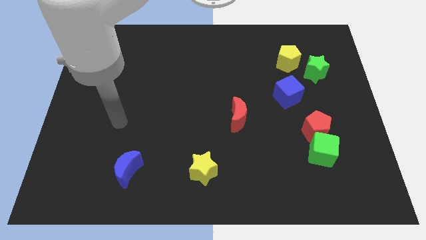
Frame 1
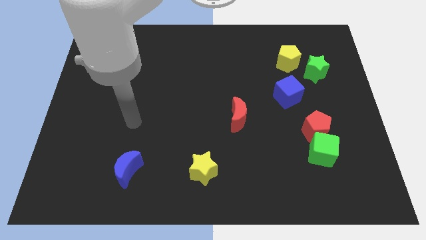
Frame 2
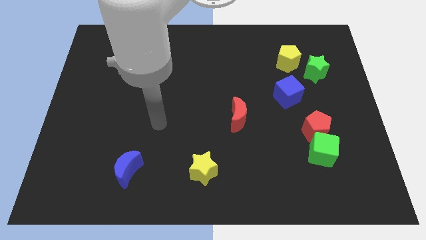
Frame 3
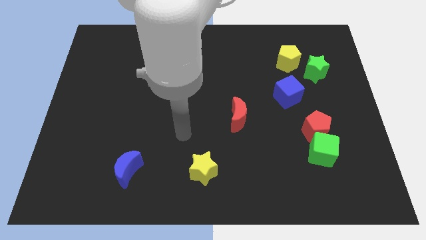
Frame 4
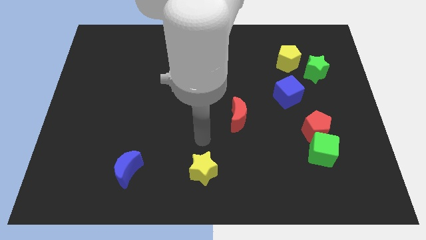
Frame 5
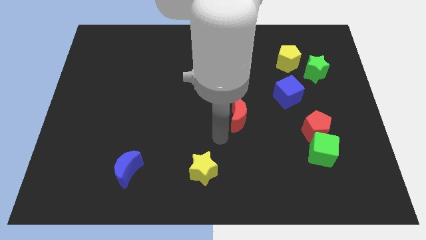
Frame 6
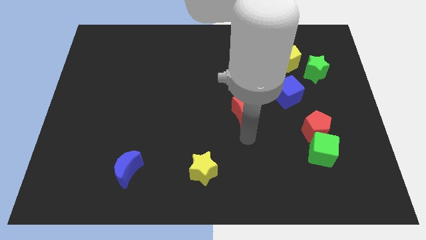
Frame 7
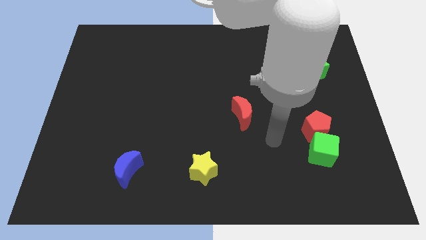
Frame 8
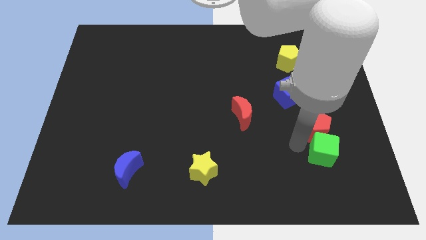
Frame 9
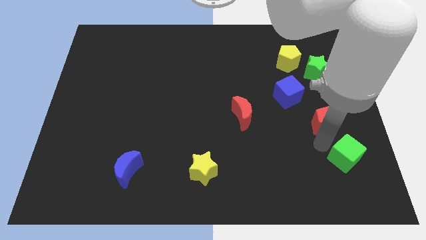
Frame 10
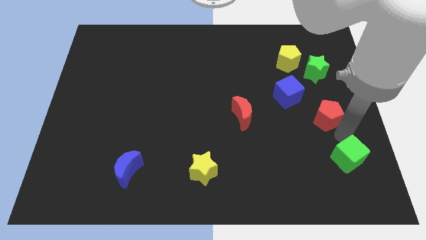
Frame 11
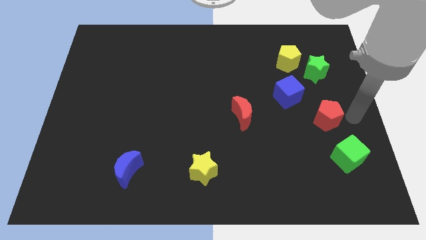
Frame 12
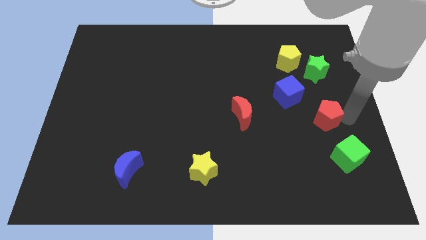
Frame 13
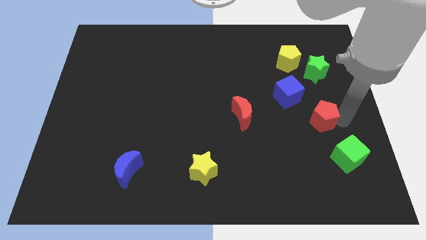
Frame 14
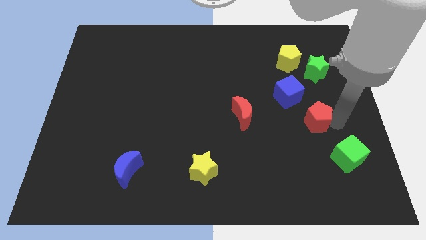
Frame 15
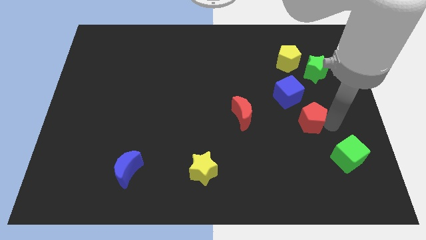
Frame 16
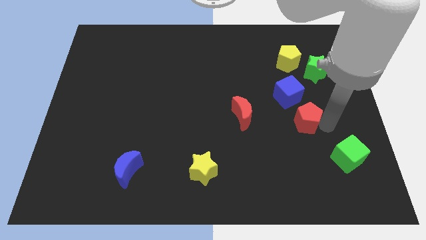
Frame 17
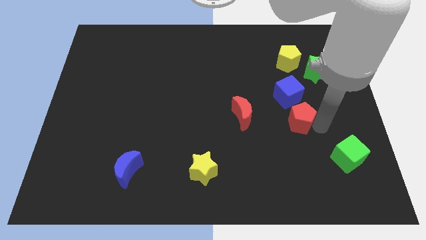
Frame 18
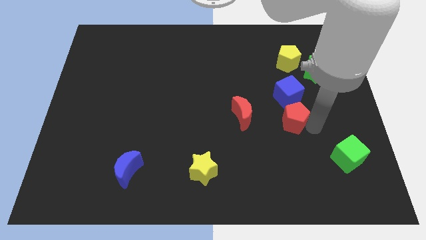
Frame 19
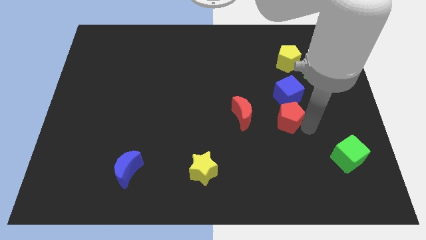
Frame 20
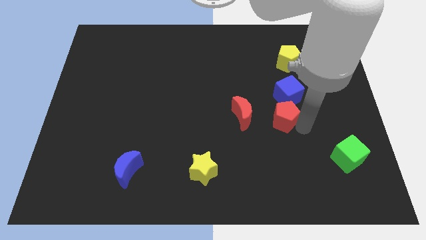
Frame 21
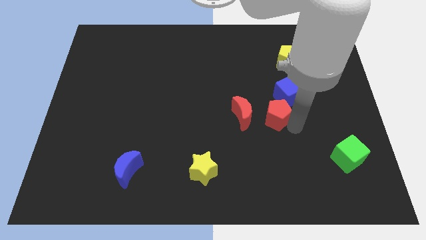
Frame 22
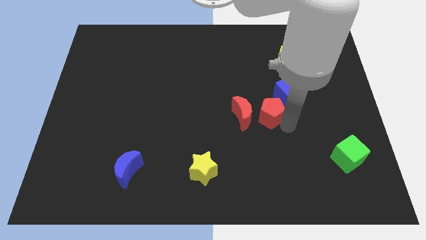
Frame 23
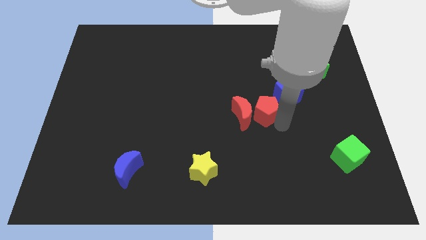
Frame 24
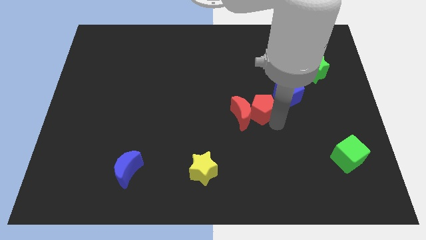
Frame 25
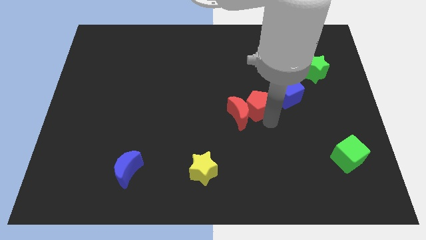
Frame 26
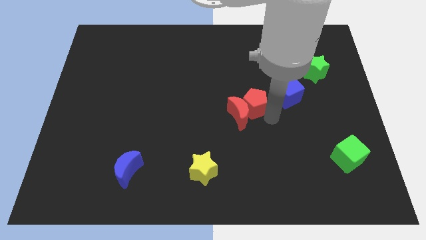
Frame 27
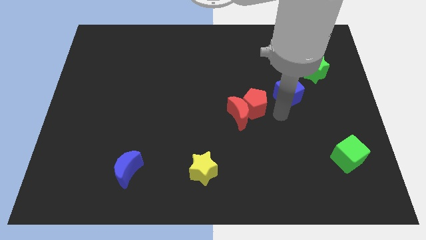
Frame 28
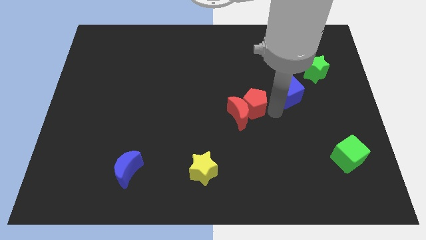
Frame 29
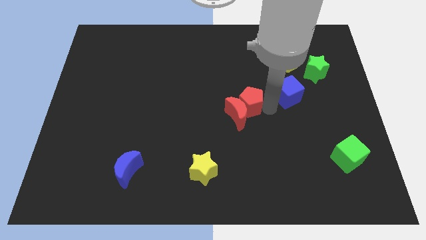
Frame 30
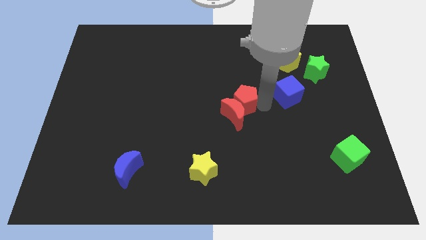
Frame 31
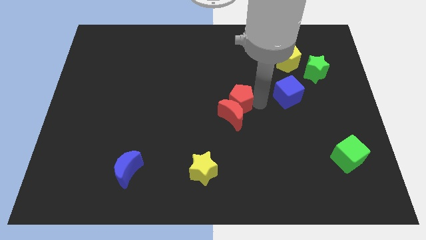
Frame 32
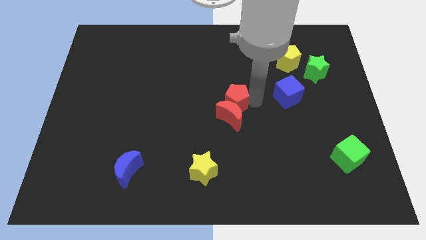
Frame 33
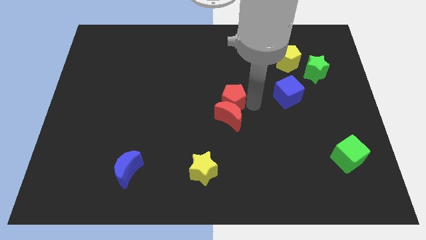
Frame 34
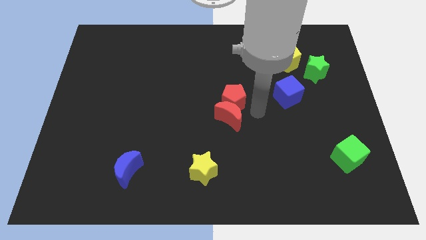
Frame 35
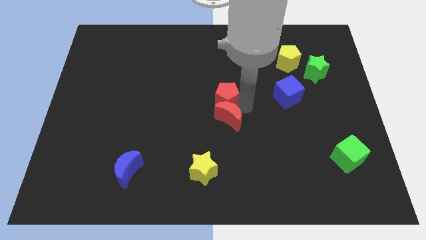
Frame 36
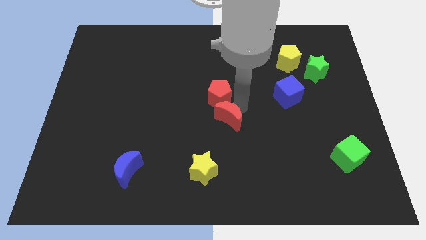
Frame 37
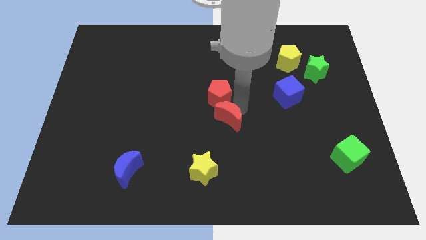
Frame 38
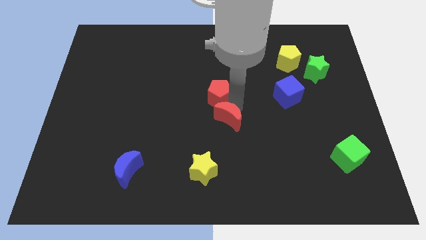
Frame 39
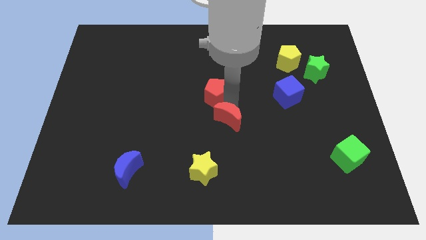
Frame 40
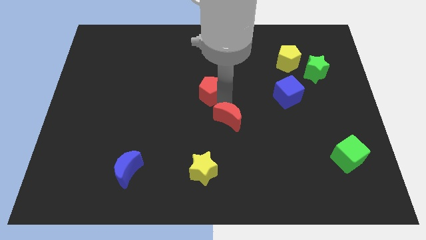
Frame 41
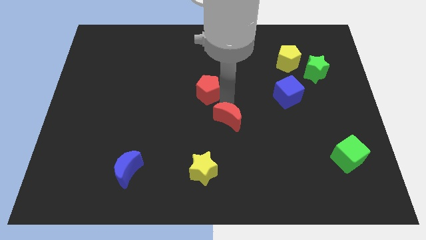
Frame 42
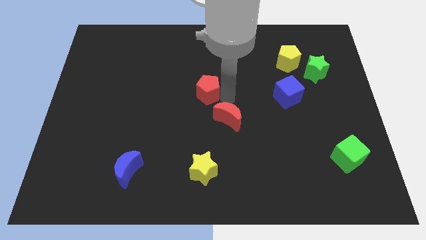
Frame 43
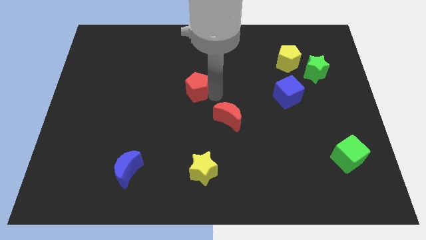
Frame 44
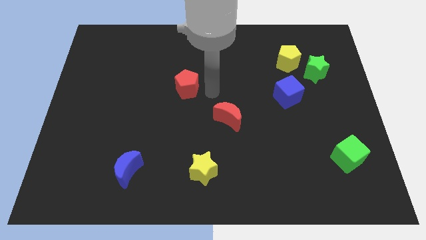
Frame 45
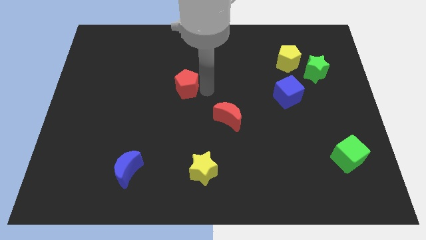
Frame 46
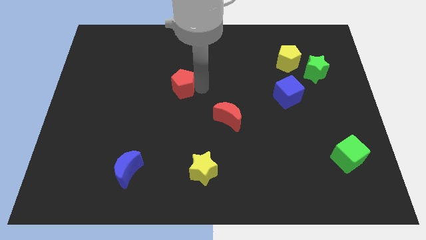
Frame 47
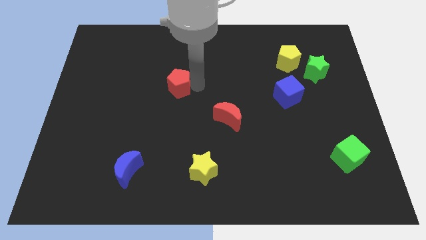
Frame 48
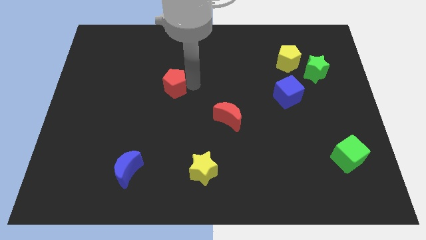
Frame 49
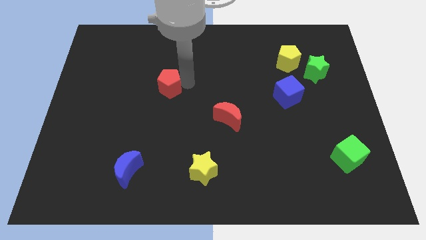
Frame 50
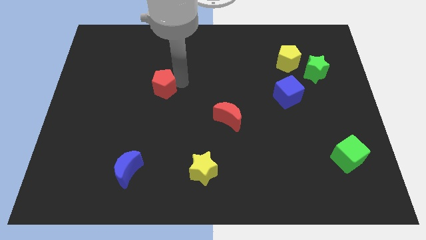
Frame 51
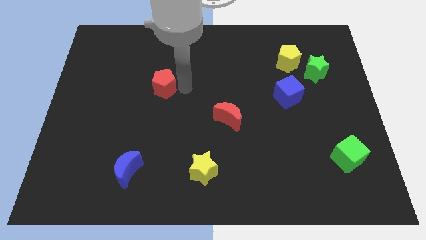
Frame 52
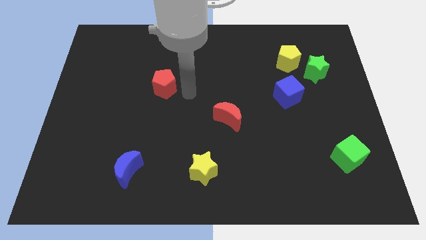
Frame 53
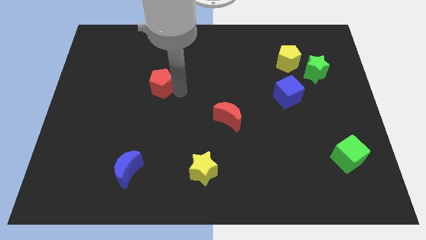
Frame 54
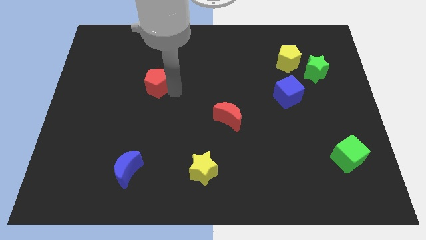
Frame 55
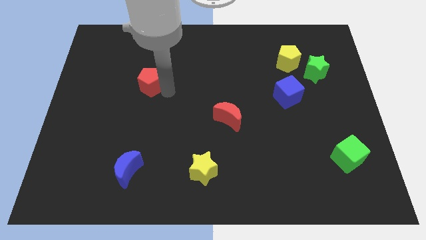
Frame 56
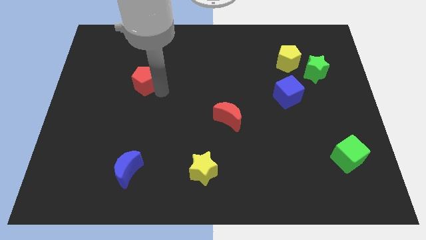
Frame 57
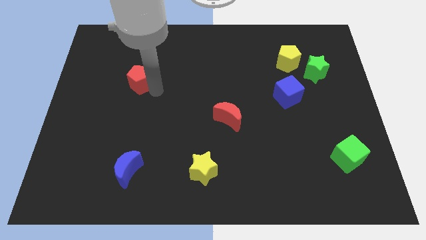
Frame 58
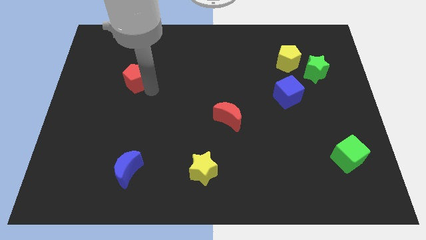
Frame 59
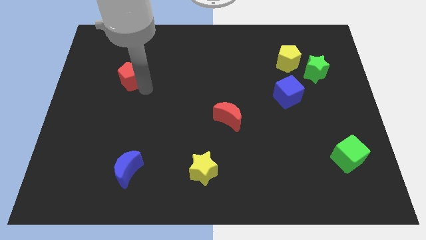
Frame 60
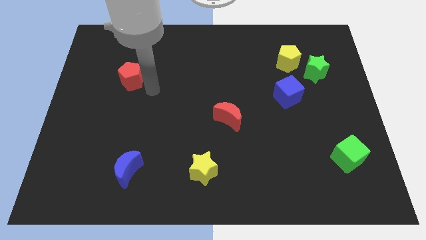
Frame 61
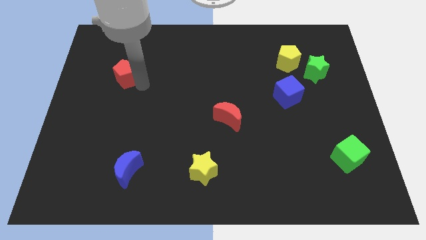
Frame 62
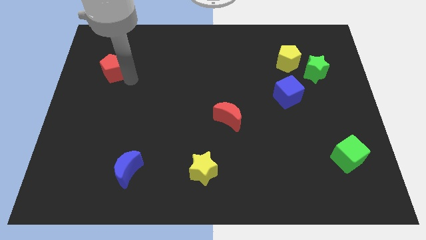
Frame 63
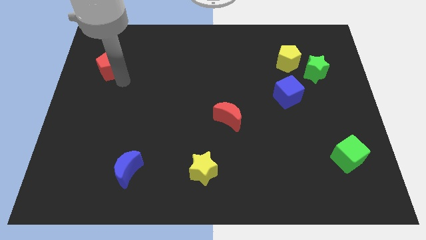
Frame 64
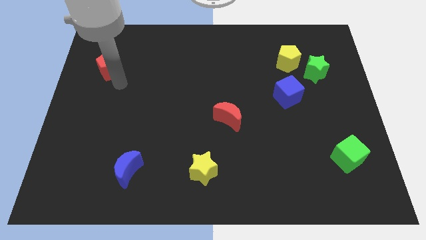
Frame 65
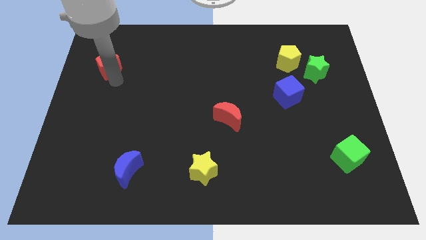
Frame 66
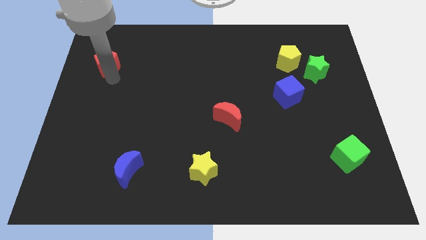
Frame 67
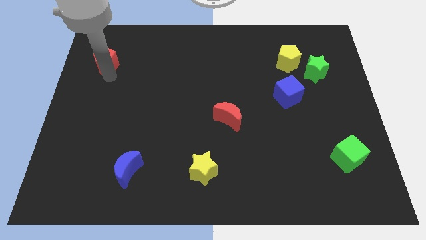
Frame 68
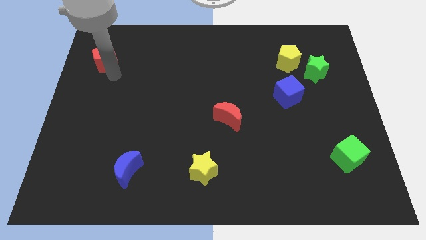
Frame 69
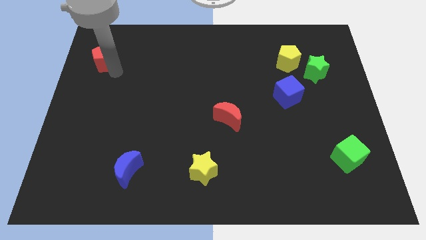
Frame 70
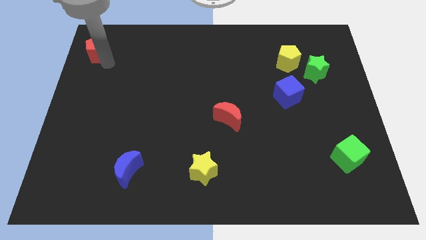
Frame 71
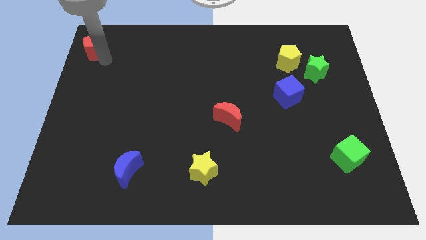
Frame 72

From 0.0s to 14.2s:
push the red pentagon to the top left
